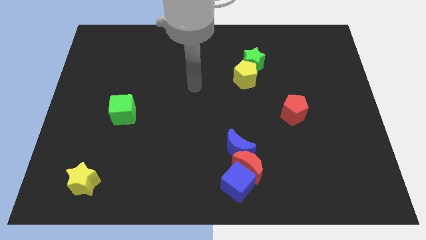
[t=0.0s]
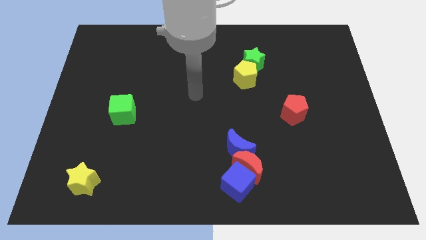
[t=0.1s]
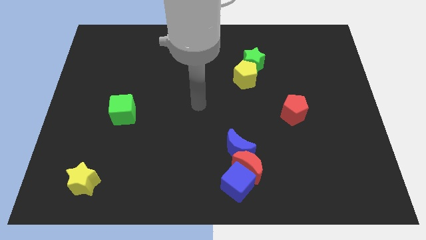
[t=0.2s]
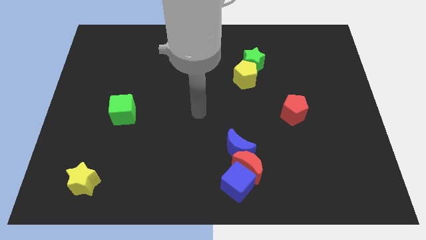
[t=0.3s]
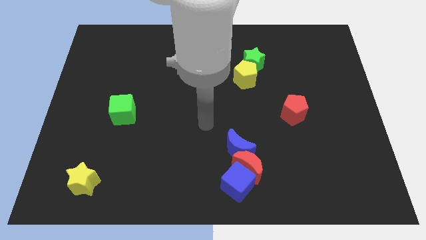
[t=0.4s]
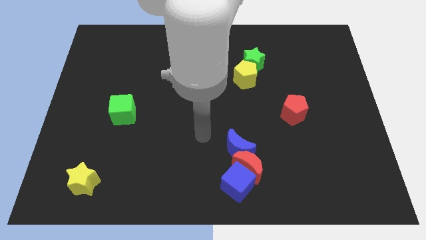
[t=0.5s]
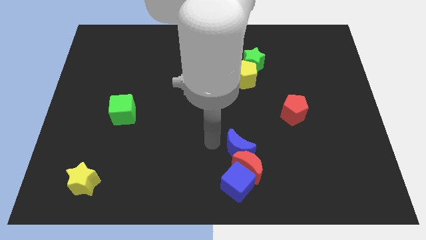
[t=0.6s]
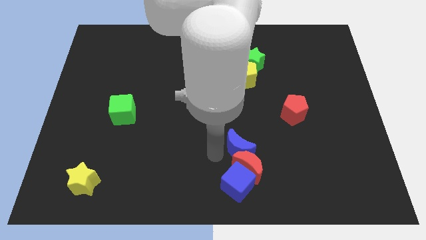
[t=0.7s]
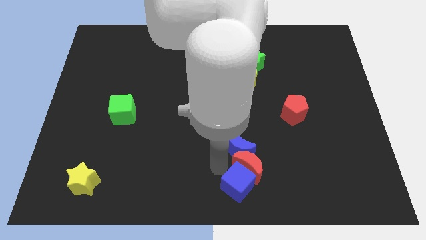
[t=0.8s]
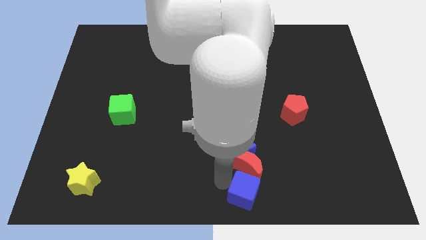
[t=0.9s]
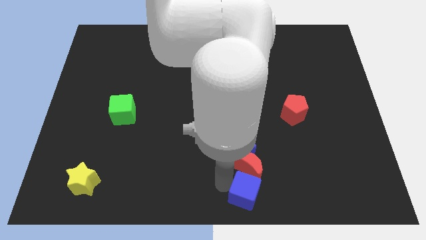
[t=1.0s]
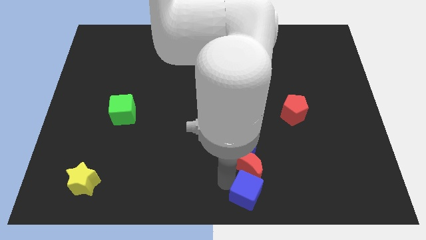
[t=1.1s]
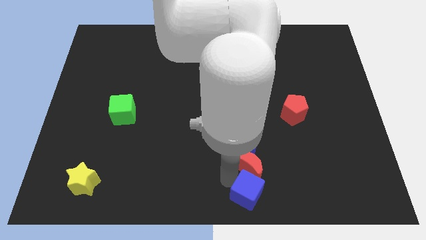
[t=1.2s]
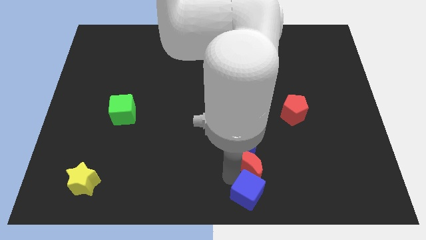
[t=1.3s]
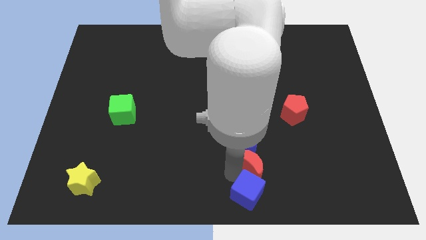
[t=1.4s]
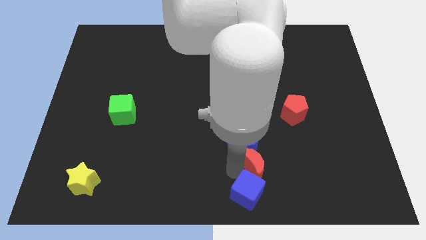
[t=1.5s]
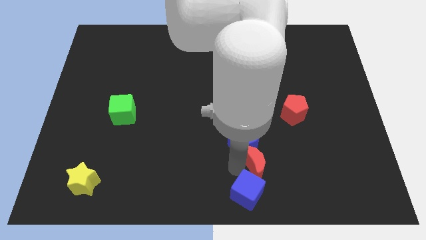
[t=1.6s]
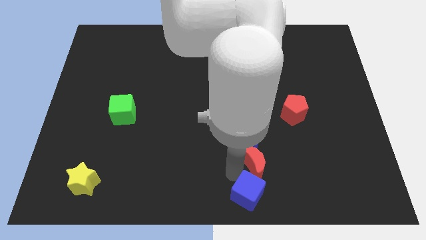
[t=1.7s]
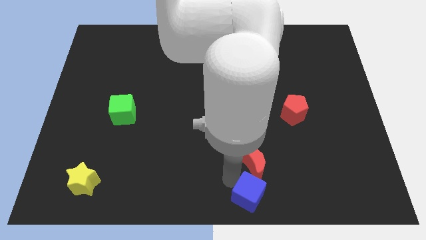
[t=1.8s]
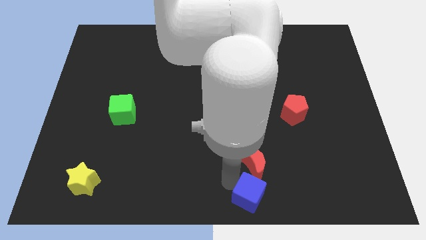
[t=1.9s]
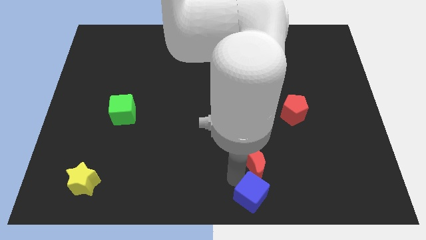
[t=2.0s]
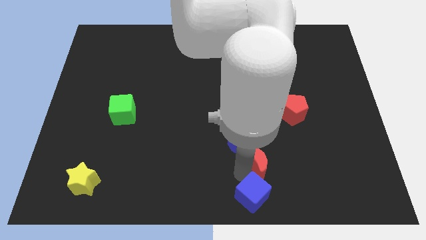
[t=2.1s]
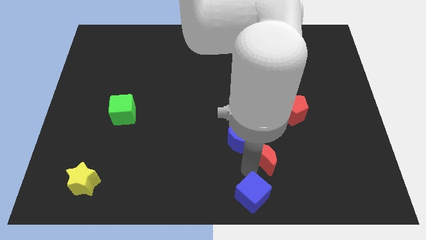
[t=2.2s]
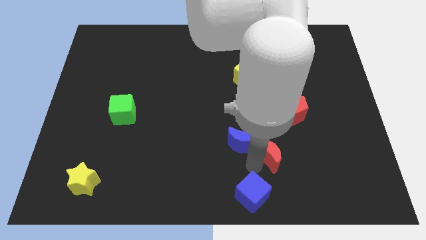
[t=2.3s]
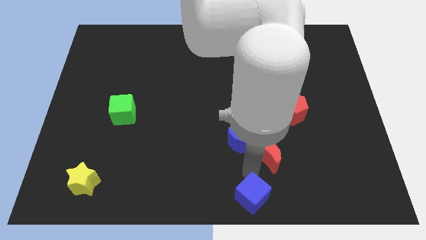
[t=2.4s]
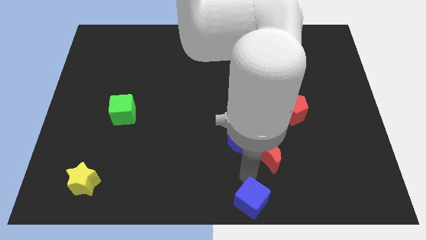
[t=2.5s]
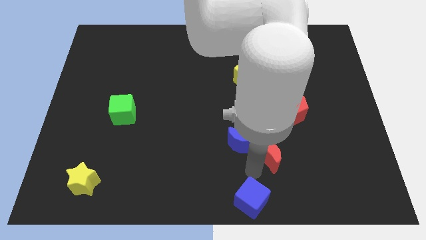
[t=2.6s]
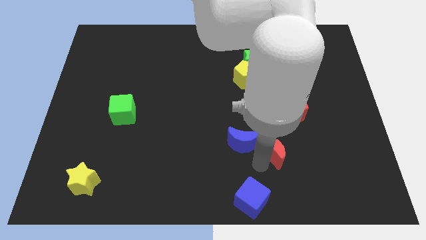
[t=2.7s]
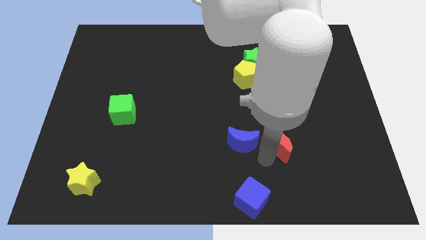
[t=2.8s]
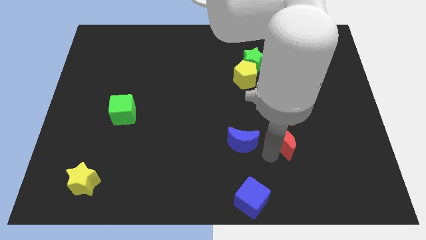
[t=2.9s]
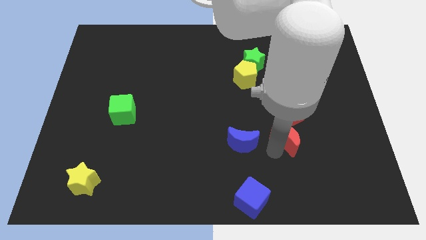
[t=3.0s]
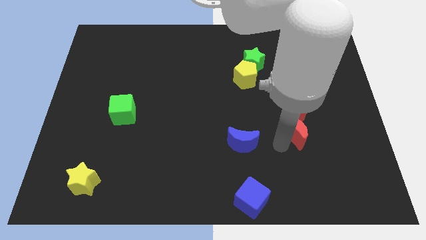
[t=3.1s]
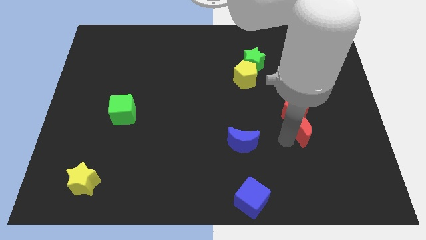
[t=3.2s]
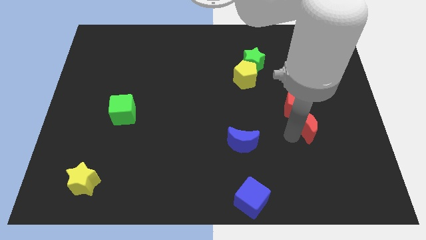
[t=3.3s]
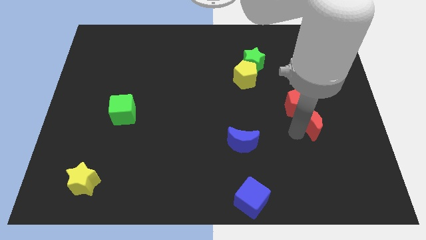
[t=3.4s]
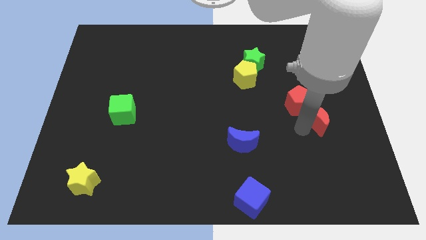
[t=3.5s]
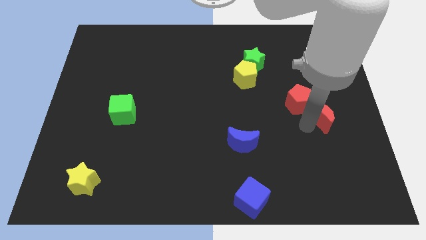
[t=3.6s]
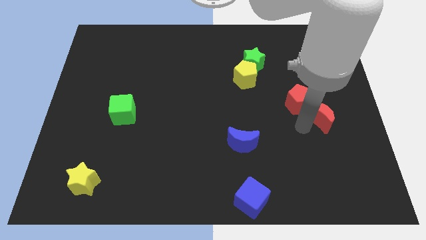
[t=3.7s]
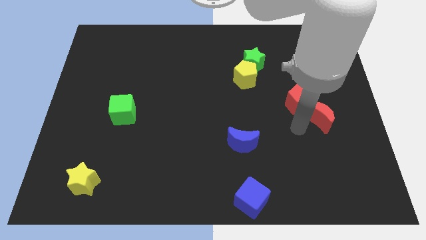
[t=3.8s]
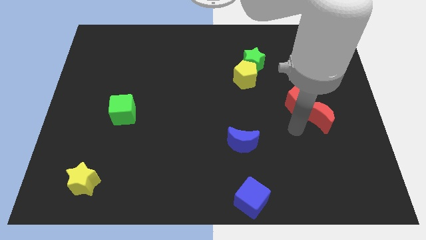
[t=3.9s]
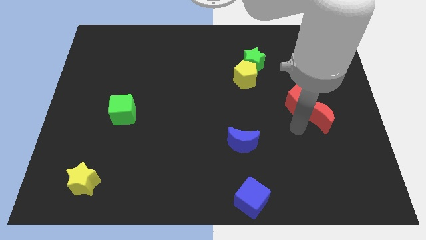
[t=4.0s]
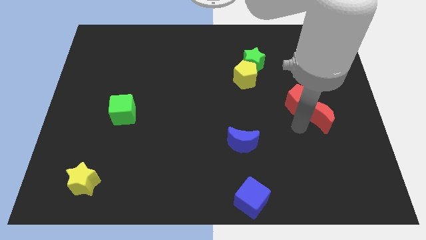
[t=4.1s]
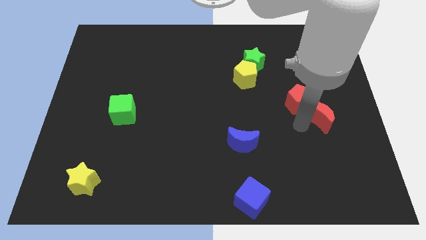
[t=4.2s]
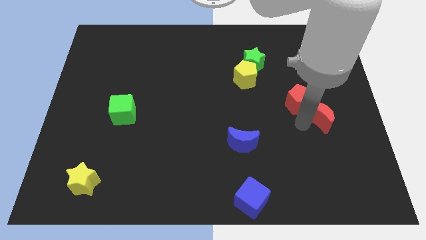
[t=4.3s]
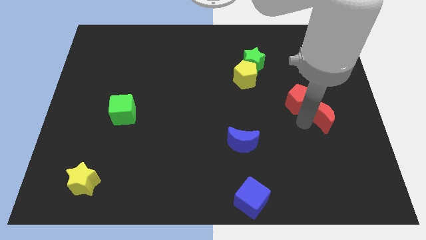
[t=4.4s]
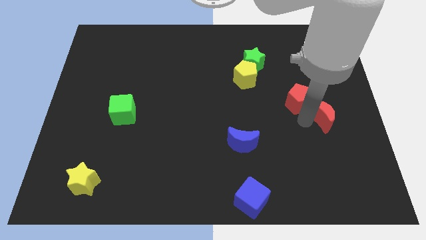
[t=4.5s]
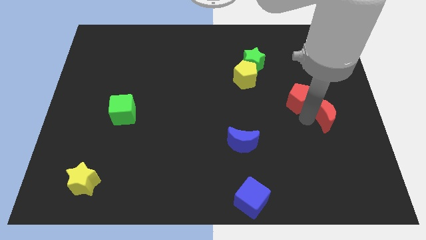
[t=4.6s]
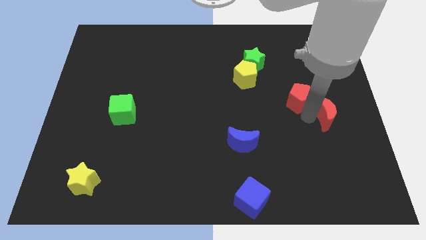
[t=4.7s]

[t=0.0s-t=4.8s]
move the red moon to the right side of the board

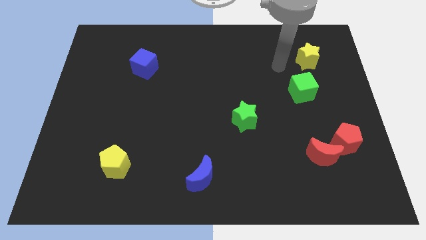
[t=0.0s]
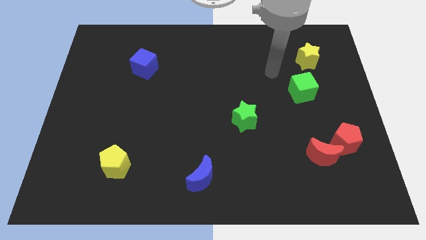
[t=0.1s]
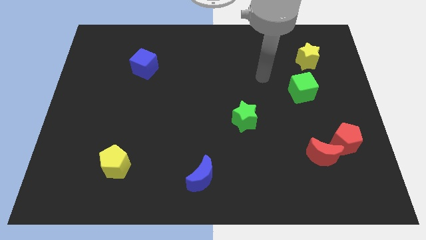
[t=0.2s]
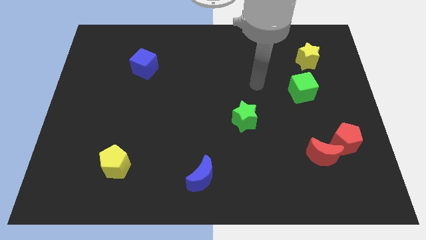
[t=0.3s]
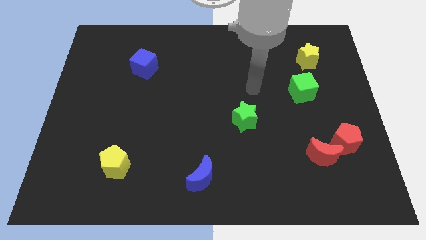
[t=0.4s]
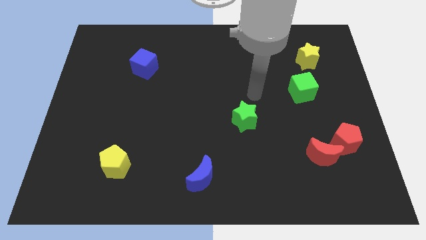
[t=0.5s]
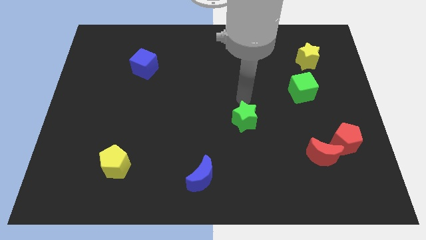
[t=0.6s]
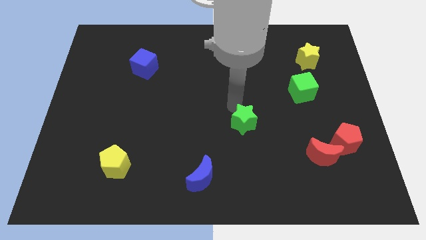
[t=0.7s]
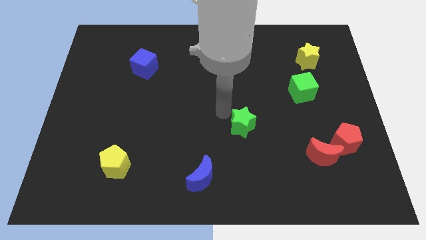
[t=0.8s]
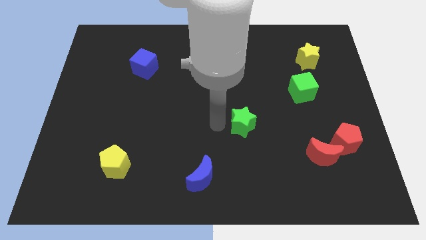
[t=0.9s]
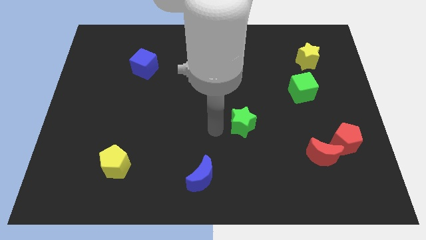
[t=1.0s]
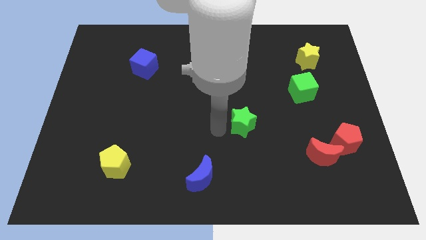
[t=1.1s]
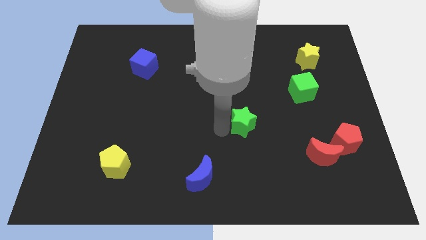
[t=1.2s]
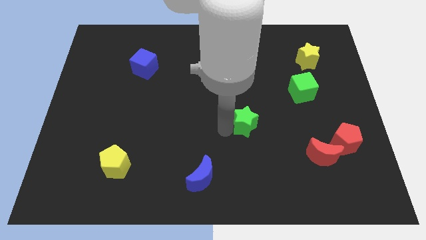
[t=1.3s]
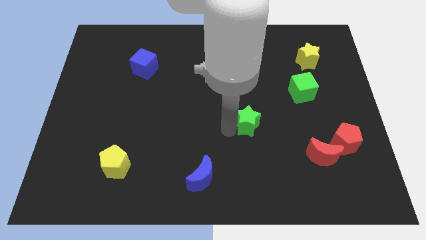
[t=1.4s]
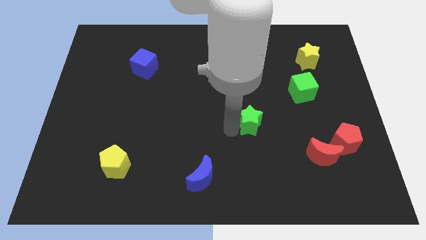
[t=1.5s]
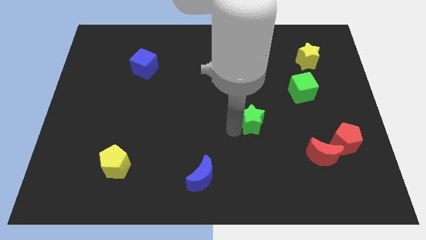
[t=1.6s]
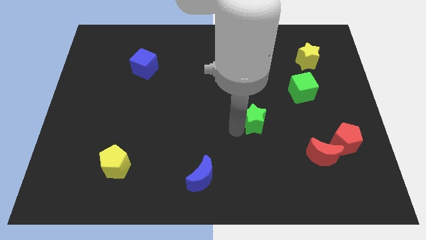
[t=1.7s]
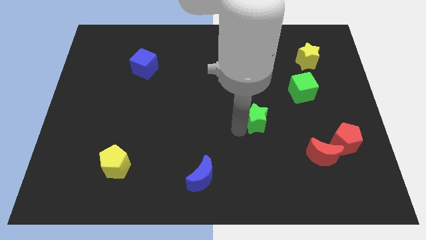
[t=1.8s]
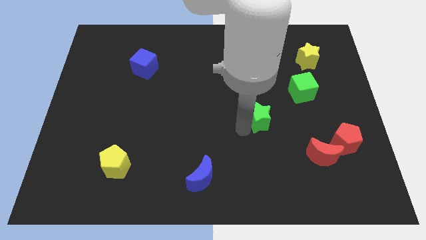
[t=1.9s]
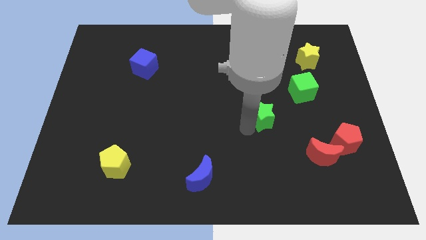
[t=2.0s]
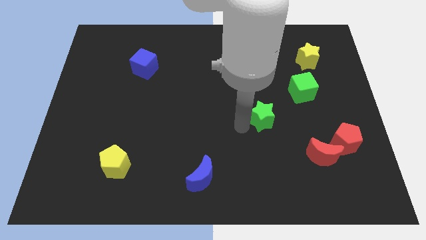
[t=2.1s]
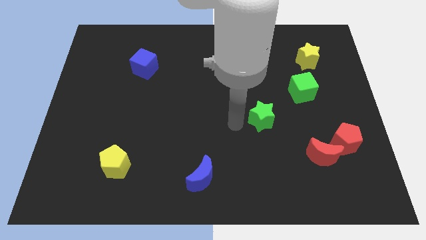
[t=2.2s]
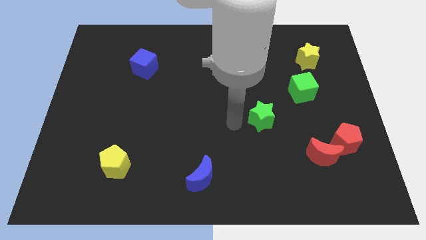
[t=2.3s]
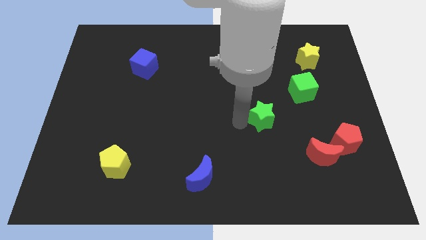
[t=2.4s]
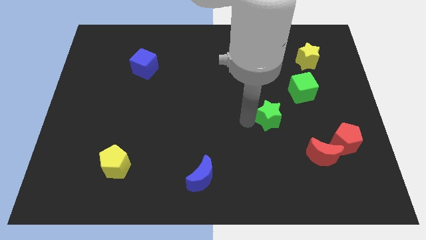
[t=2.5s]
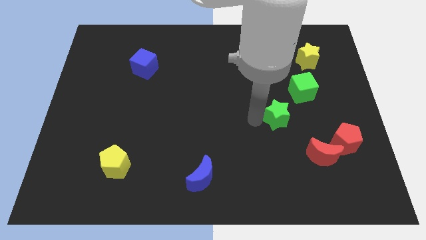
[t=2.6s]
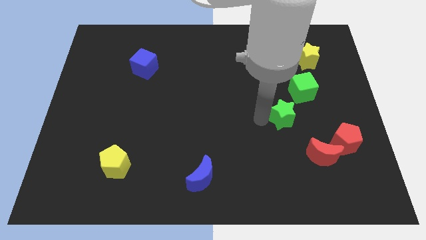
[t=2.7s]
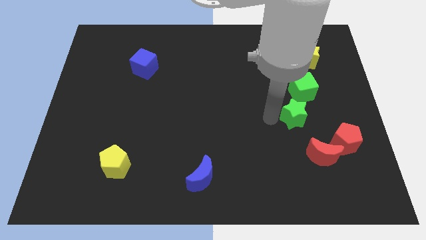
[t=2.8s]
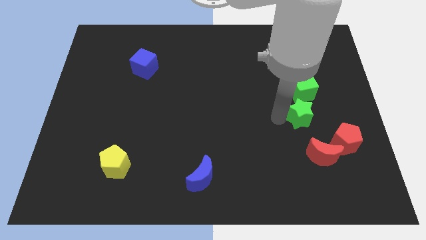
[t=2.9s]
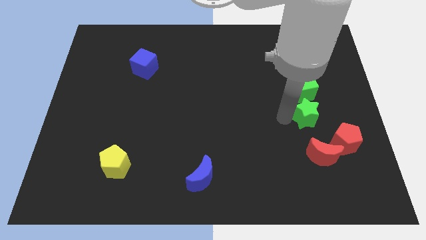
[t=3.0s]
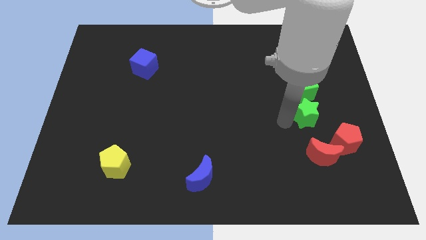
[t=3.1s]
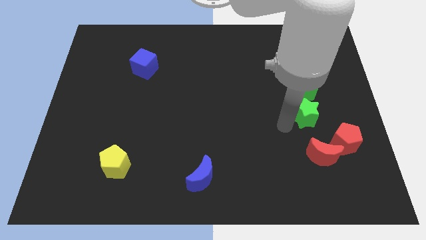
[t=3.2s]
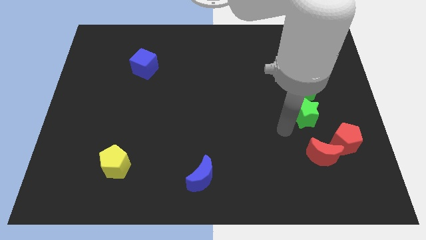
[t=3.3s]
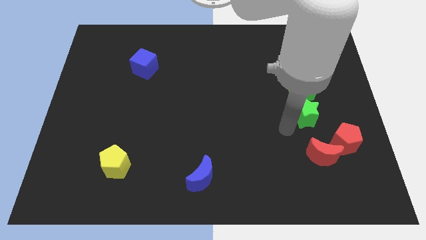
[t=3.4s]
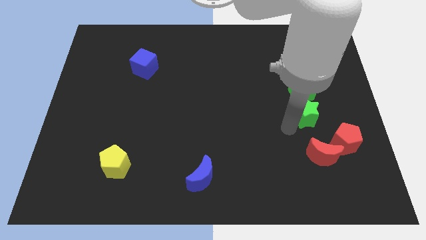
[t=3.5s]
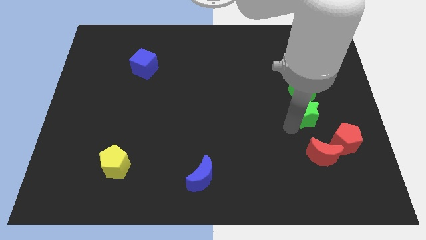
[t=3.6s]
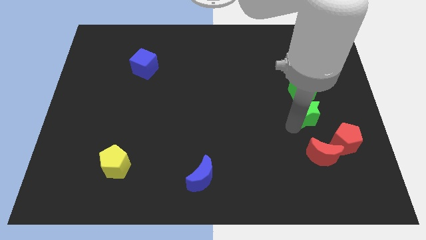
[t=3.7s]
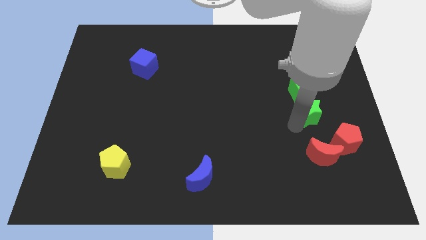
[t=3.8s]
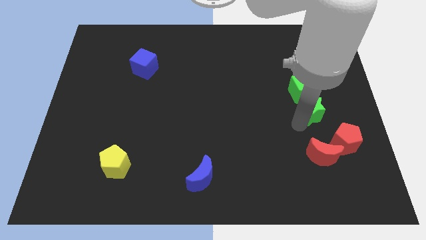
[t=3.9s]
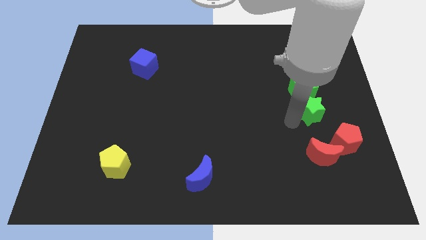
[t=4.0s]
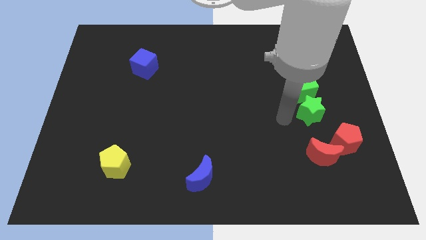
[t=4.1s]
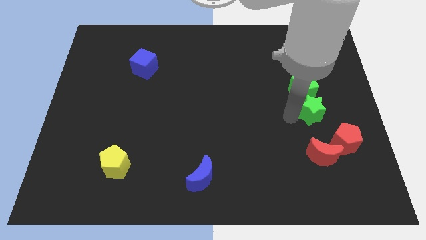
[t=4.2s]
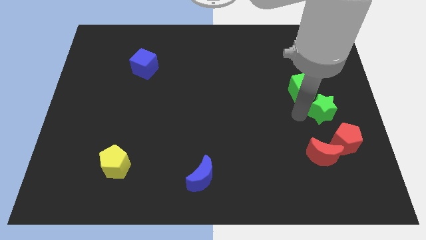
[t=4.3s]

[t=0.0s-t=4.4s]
put the green star to the right side
